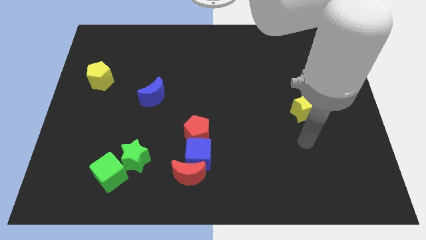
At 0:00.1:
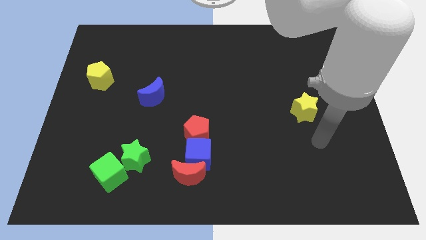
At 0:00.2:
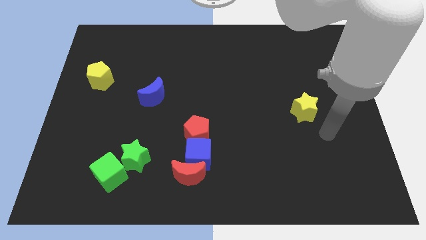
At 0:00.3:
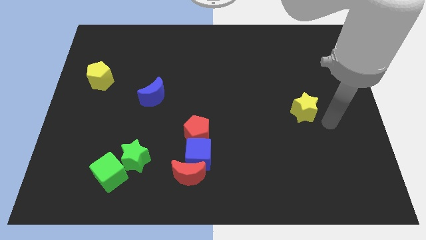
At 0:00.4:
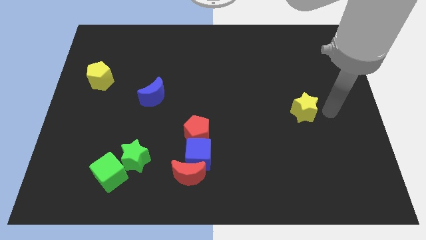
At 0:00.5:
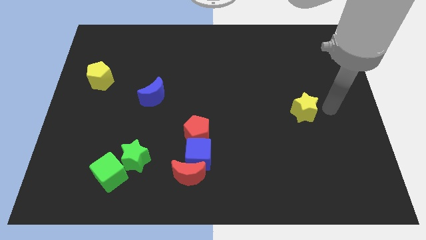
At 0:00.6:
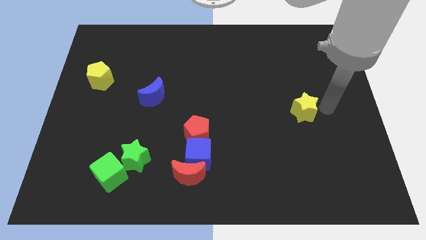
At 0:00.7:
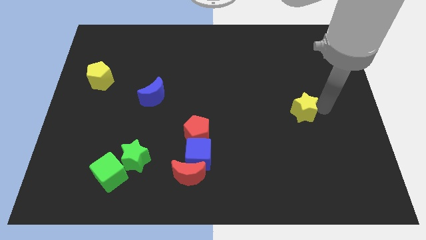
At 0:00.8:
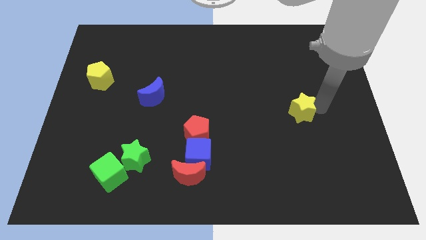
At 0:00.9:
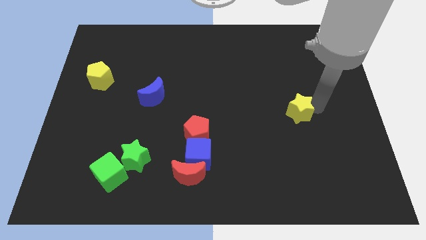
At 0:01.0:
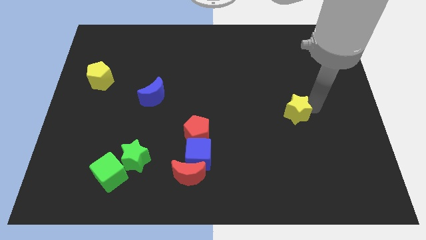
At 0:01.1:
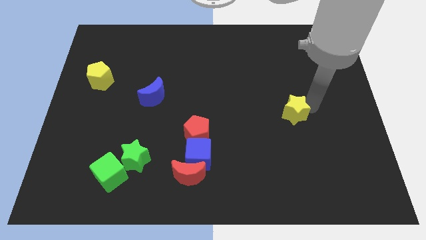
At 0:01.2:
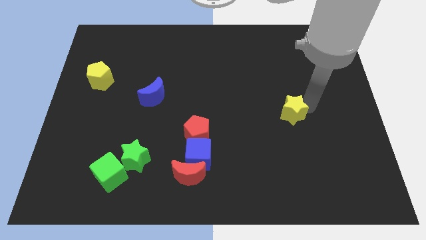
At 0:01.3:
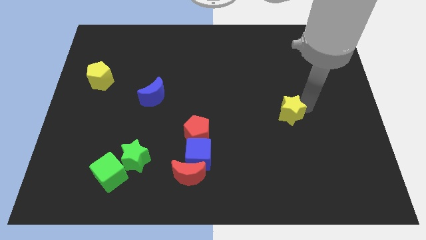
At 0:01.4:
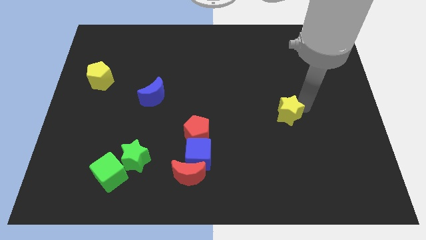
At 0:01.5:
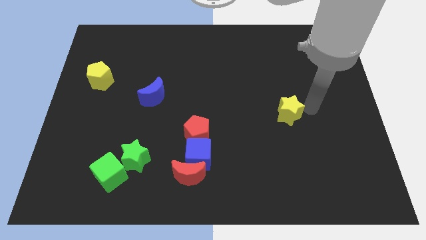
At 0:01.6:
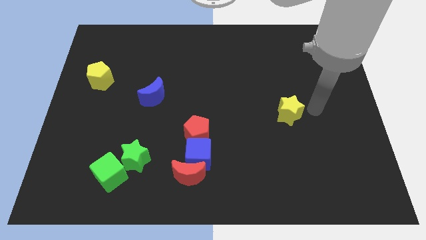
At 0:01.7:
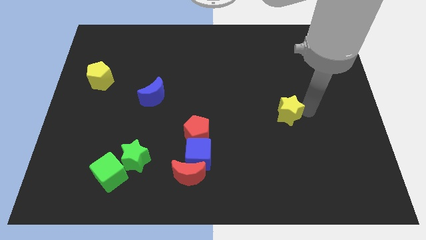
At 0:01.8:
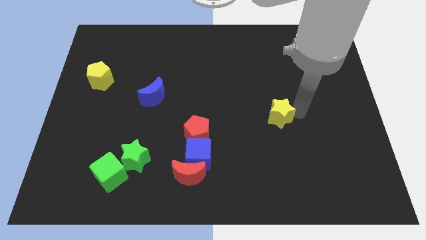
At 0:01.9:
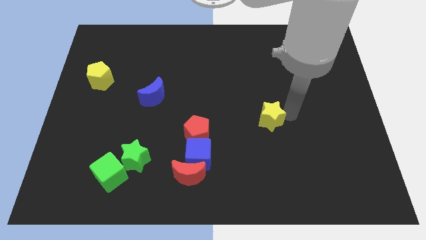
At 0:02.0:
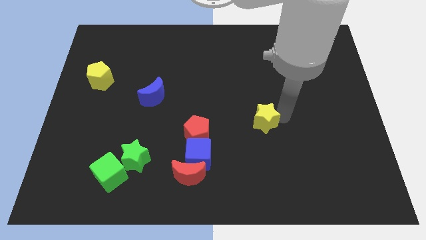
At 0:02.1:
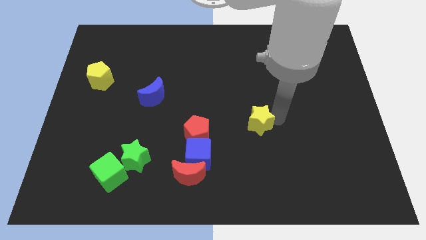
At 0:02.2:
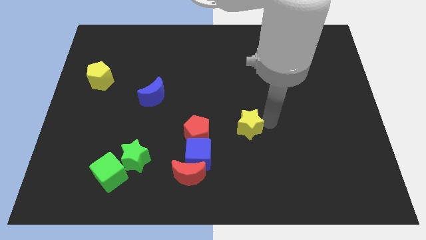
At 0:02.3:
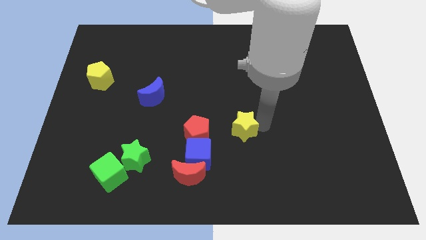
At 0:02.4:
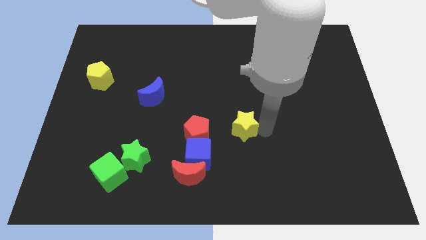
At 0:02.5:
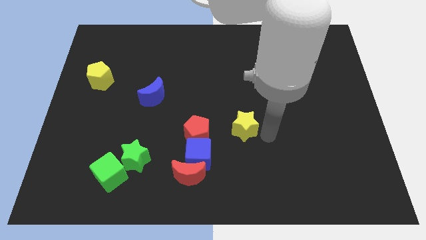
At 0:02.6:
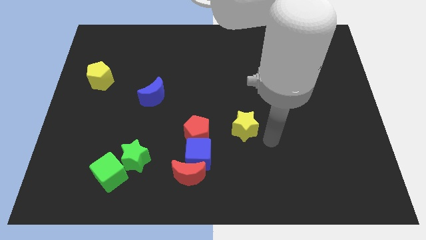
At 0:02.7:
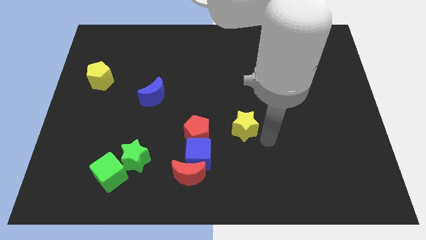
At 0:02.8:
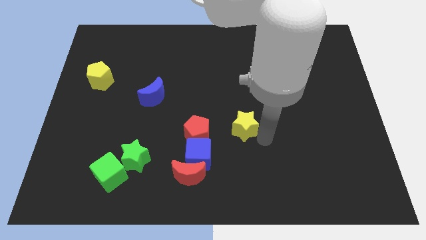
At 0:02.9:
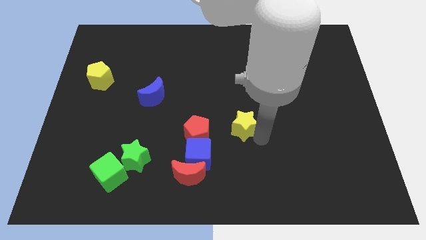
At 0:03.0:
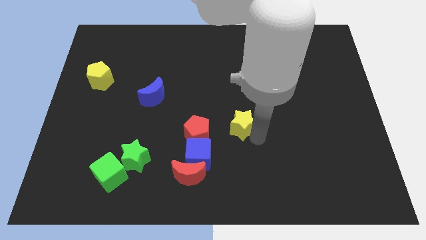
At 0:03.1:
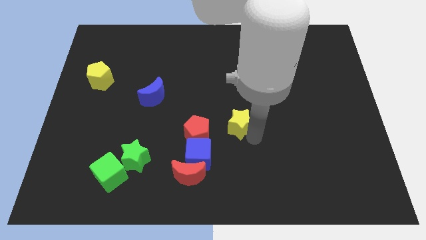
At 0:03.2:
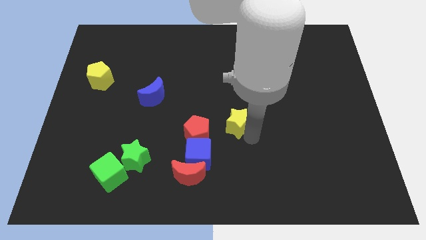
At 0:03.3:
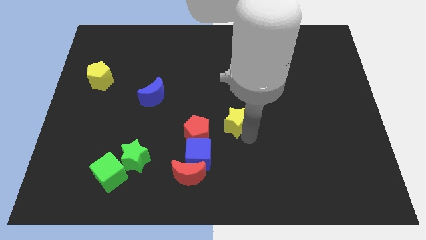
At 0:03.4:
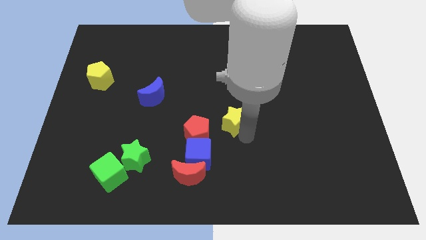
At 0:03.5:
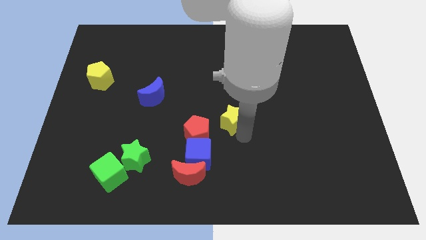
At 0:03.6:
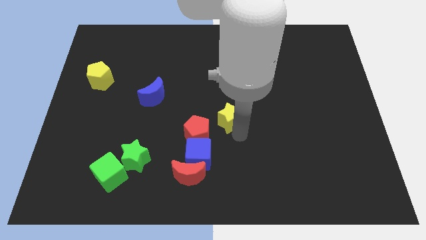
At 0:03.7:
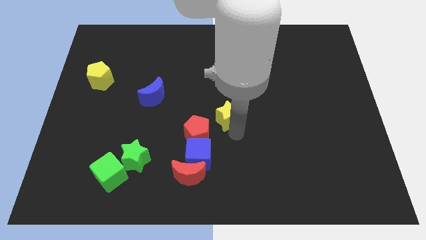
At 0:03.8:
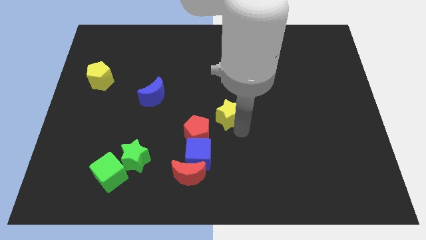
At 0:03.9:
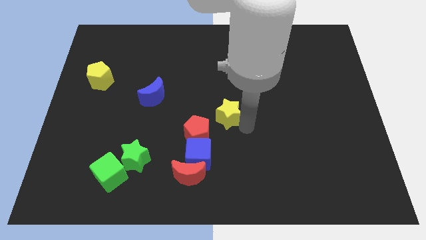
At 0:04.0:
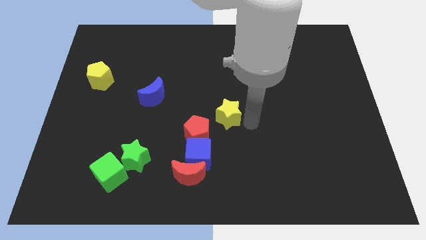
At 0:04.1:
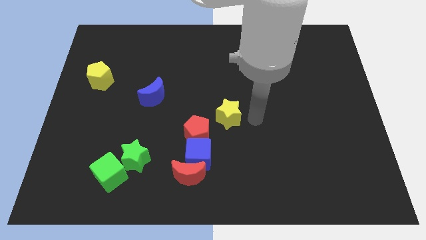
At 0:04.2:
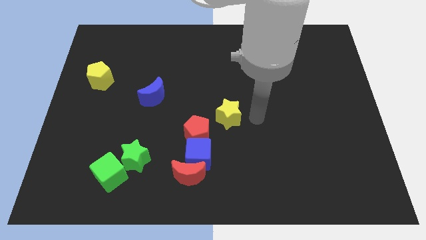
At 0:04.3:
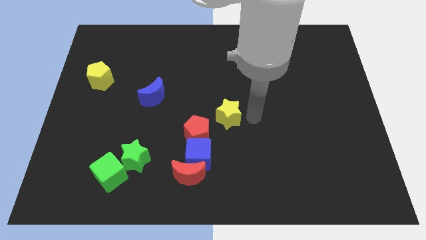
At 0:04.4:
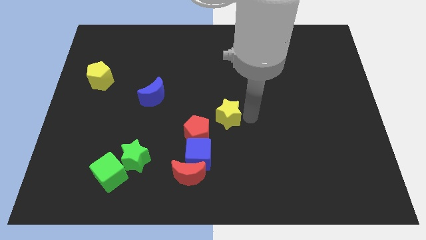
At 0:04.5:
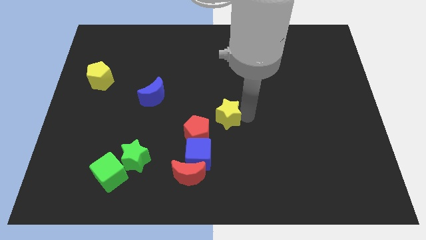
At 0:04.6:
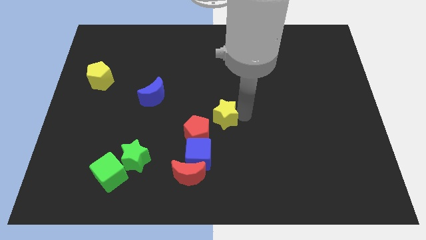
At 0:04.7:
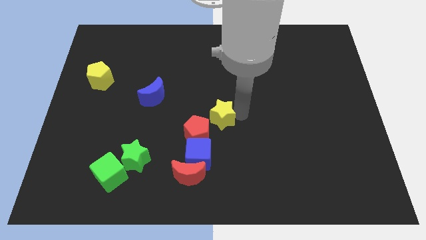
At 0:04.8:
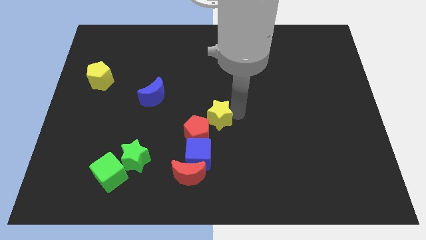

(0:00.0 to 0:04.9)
slide the yellow star above the blue cube

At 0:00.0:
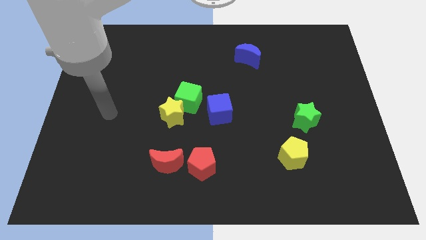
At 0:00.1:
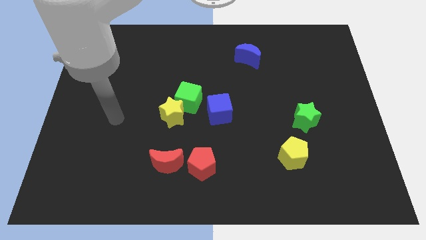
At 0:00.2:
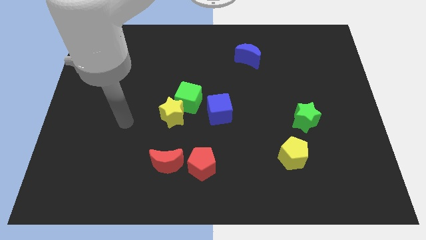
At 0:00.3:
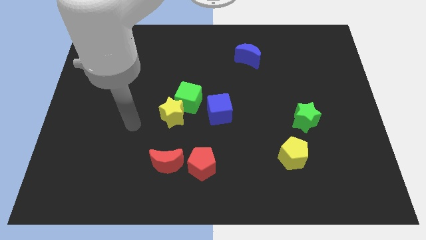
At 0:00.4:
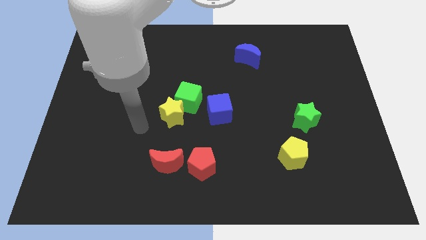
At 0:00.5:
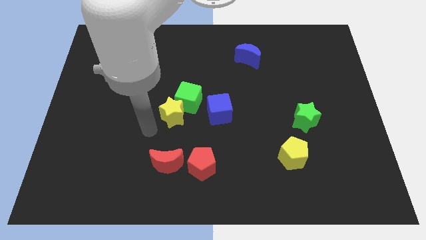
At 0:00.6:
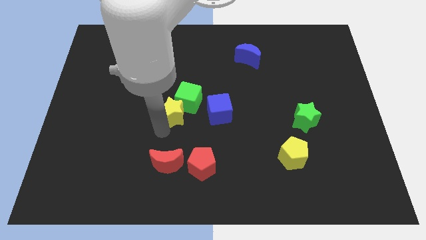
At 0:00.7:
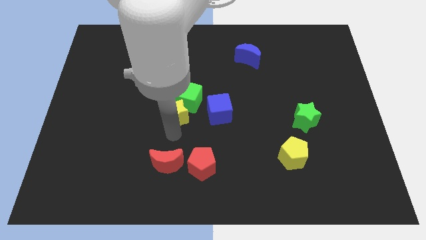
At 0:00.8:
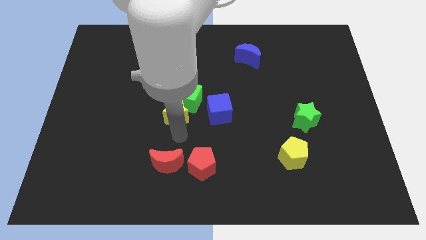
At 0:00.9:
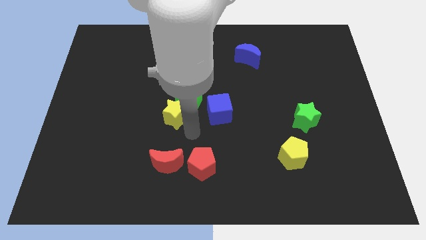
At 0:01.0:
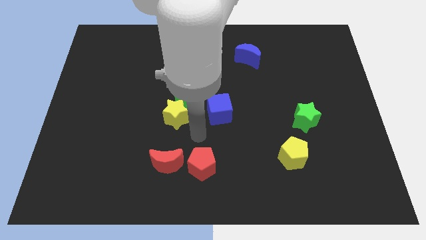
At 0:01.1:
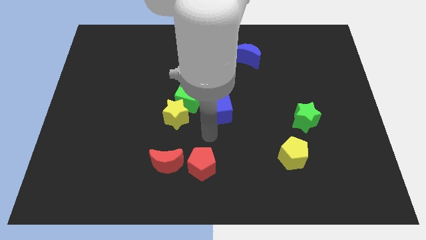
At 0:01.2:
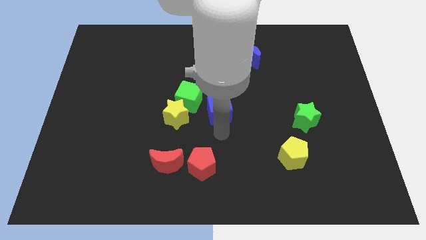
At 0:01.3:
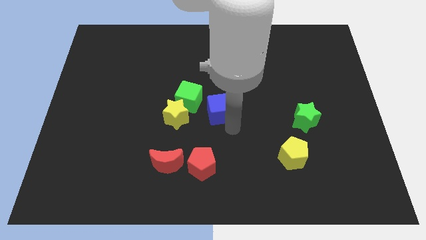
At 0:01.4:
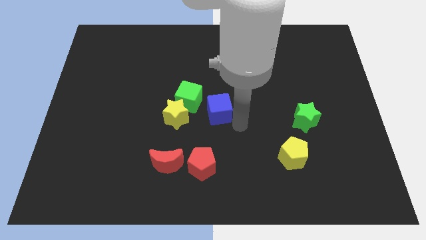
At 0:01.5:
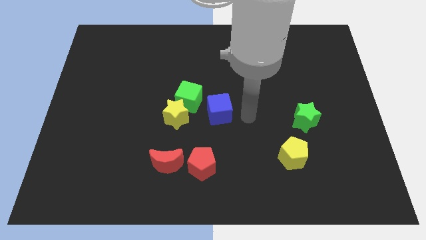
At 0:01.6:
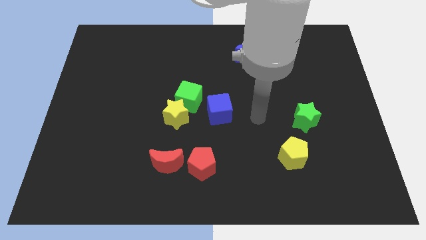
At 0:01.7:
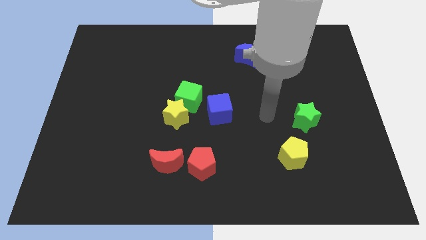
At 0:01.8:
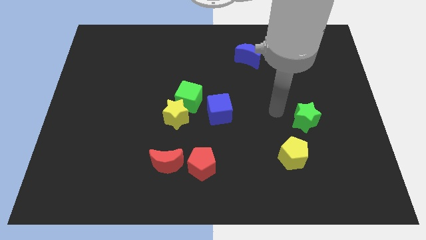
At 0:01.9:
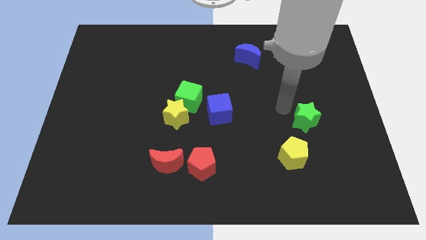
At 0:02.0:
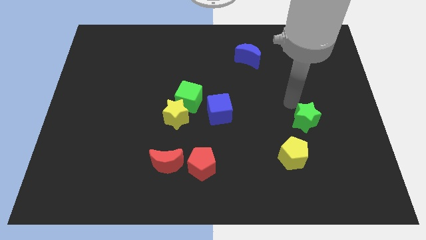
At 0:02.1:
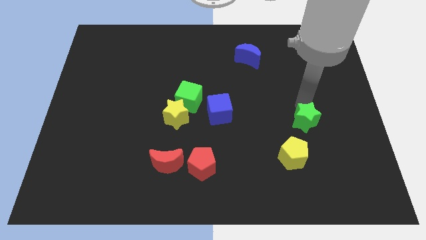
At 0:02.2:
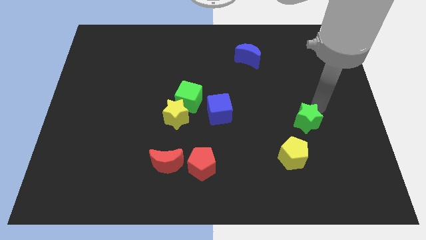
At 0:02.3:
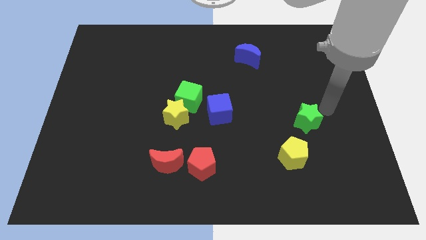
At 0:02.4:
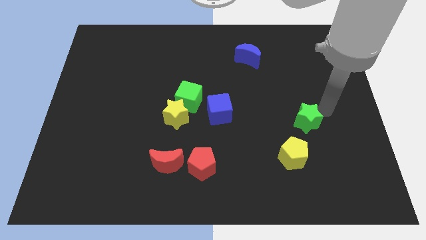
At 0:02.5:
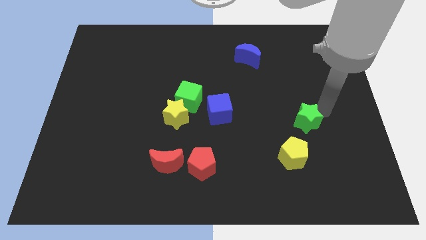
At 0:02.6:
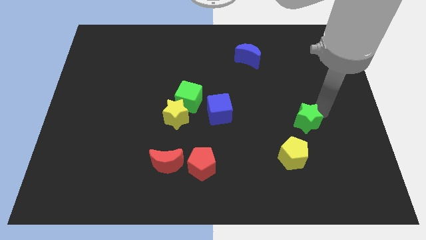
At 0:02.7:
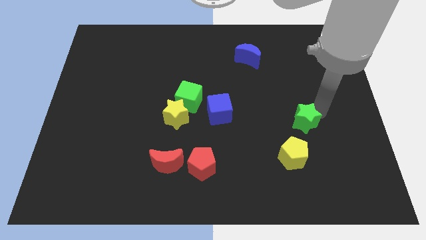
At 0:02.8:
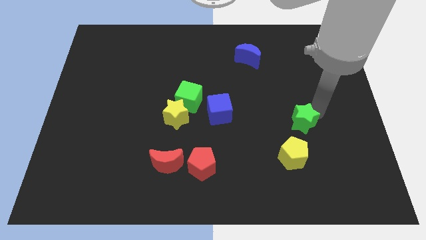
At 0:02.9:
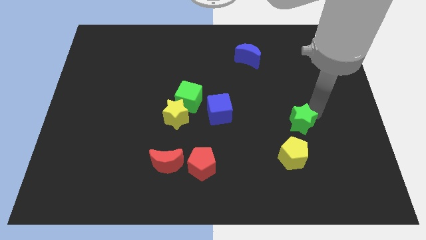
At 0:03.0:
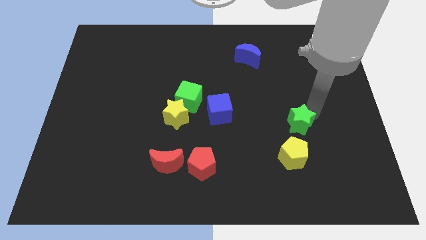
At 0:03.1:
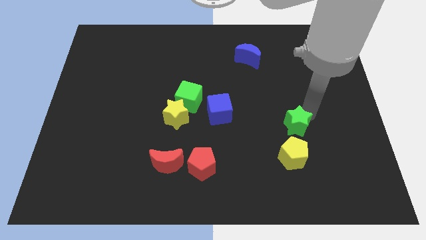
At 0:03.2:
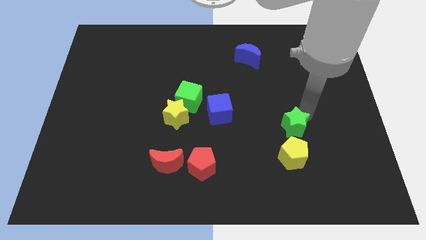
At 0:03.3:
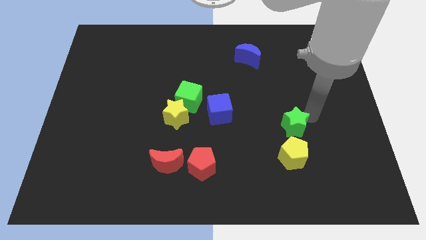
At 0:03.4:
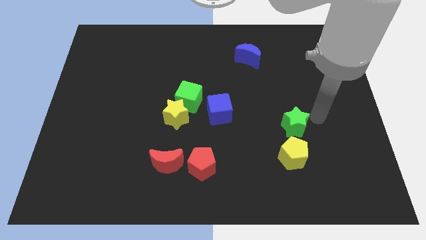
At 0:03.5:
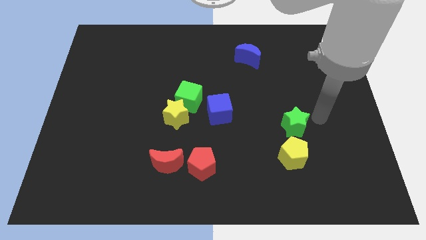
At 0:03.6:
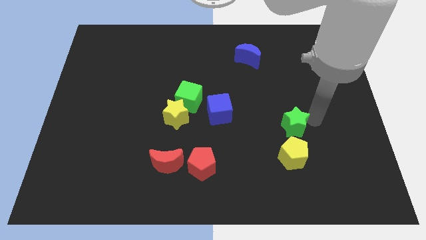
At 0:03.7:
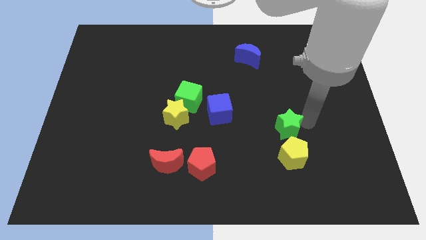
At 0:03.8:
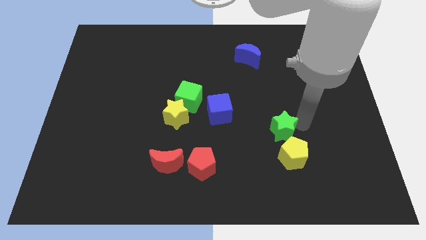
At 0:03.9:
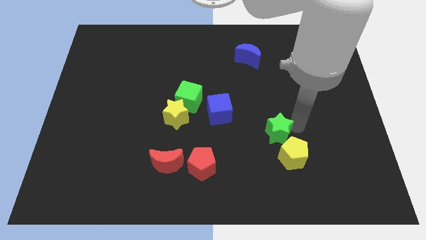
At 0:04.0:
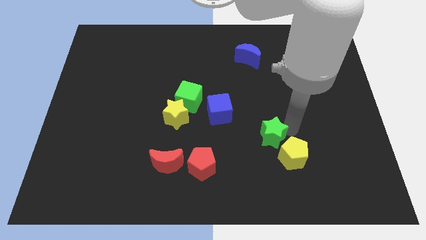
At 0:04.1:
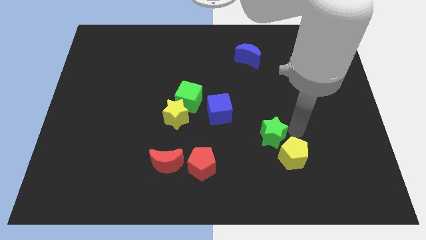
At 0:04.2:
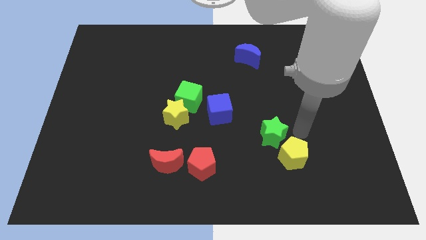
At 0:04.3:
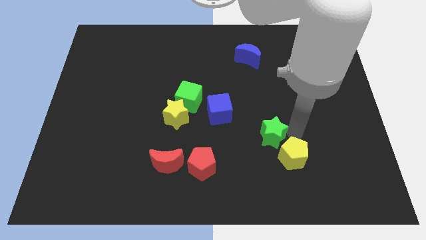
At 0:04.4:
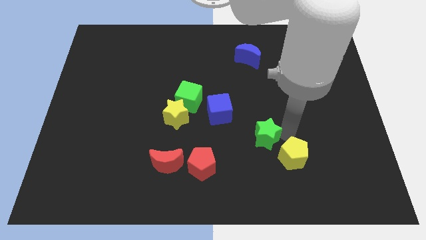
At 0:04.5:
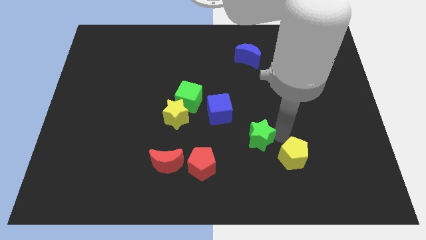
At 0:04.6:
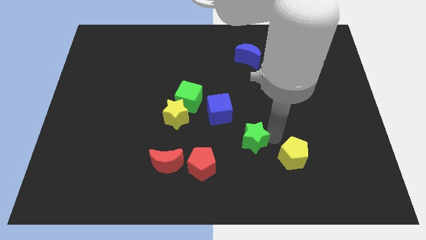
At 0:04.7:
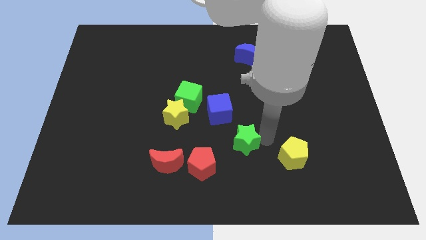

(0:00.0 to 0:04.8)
move the green star to the top right side of the red pentagon
